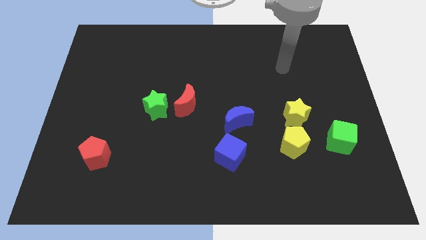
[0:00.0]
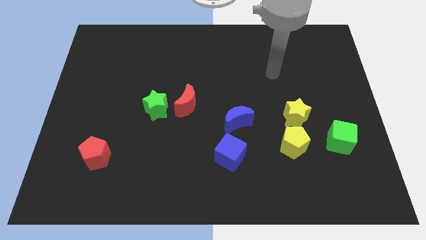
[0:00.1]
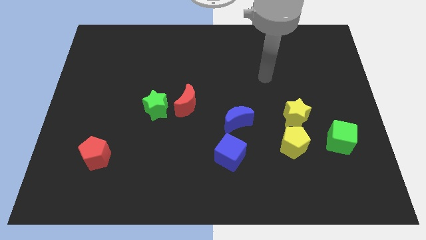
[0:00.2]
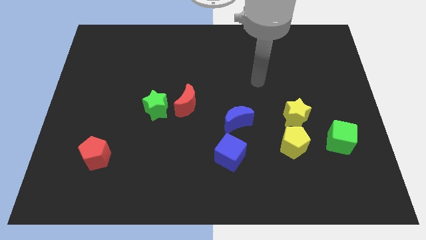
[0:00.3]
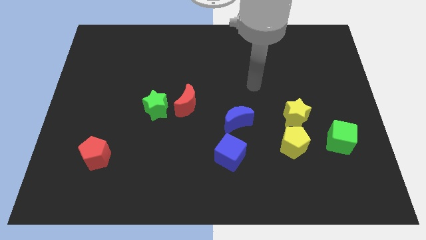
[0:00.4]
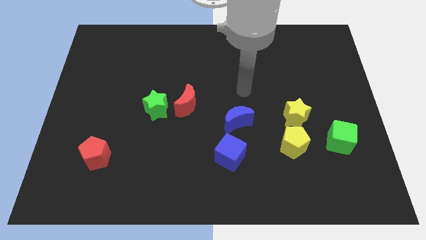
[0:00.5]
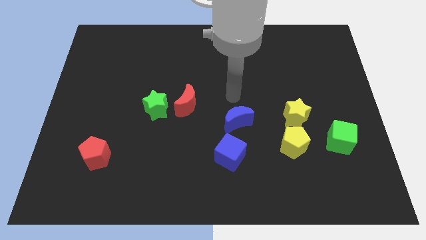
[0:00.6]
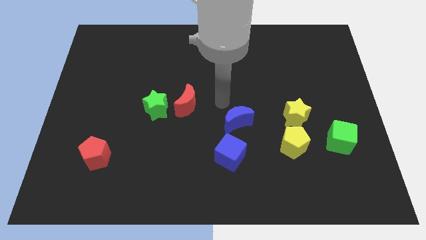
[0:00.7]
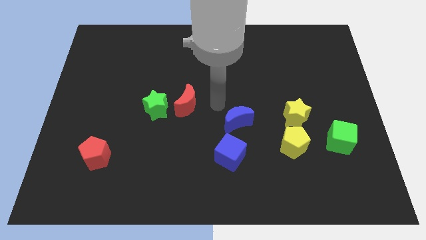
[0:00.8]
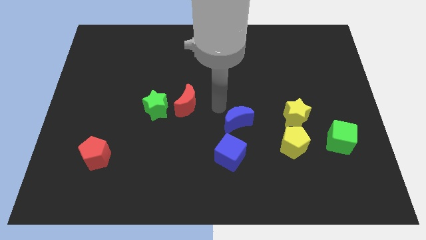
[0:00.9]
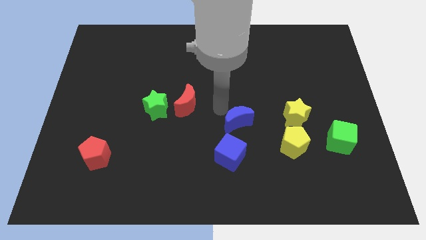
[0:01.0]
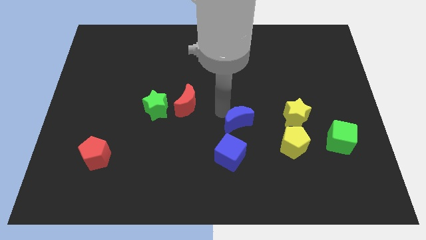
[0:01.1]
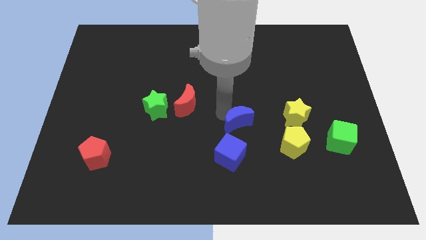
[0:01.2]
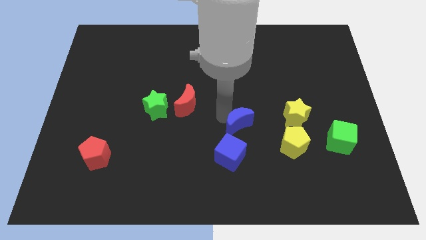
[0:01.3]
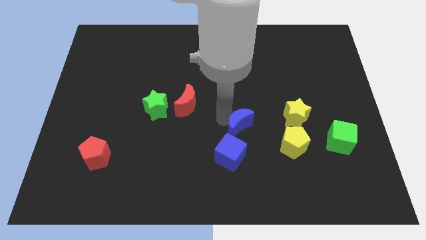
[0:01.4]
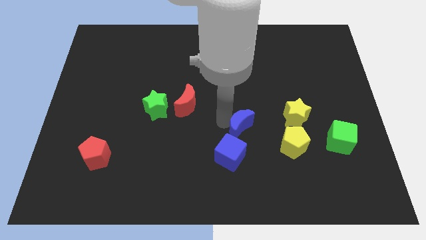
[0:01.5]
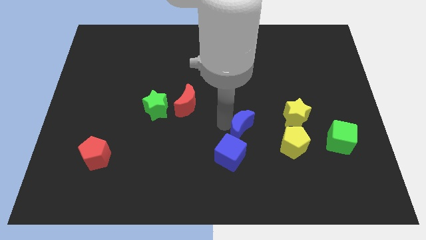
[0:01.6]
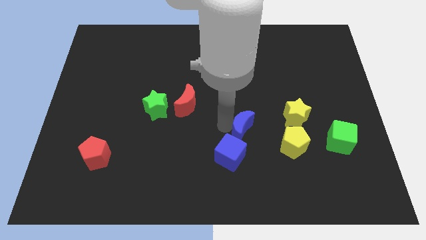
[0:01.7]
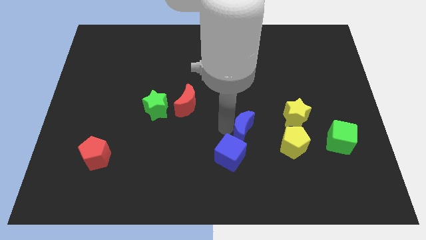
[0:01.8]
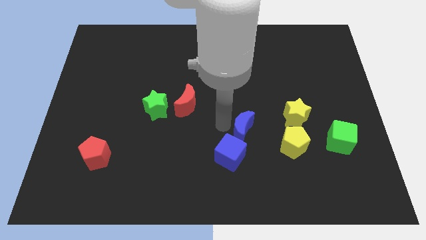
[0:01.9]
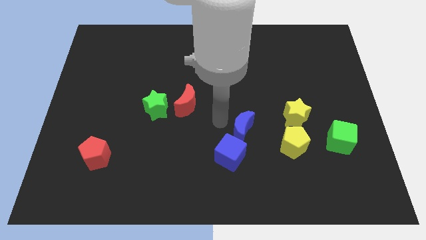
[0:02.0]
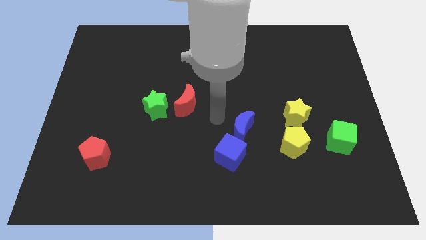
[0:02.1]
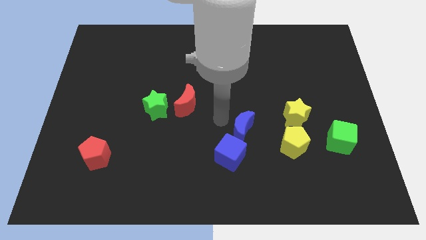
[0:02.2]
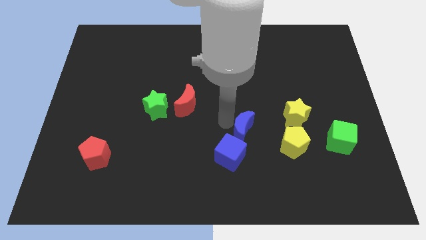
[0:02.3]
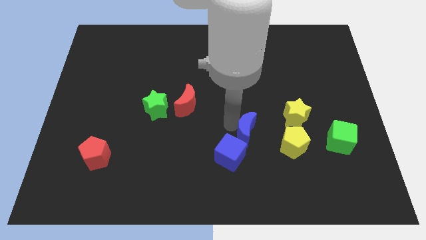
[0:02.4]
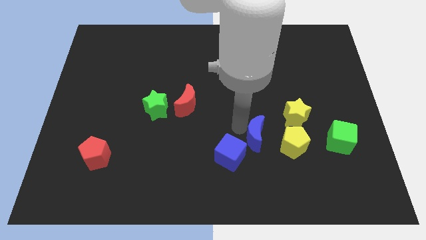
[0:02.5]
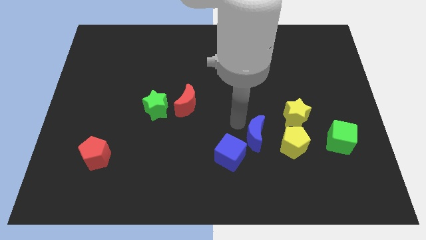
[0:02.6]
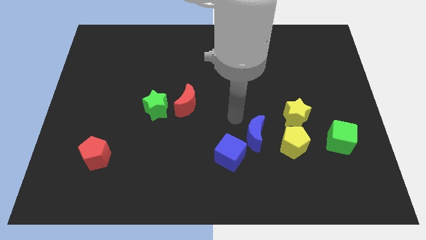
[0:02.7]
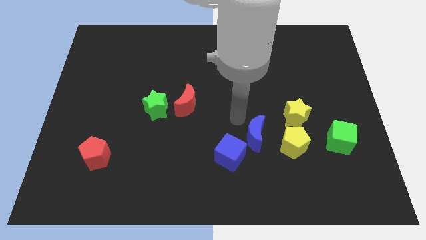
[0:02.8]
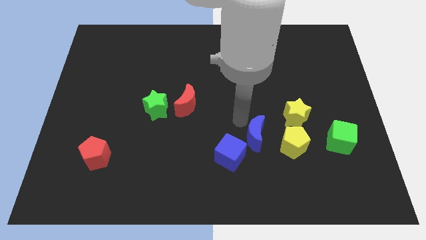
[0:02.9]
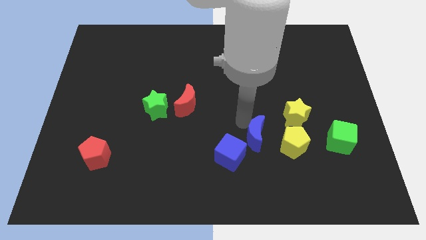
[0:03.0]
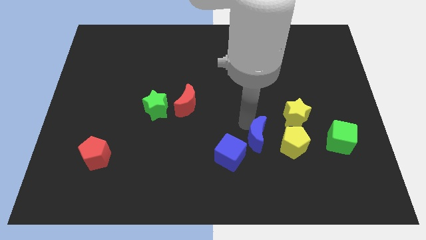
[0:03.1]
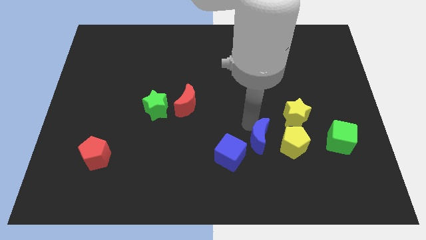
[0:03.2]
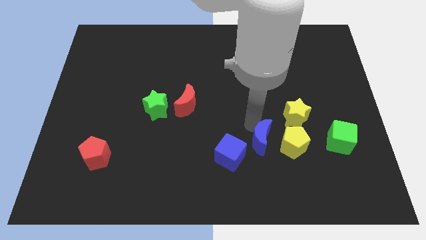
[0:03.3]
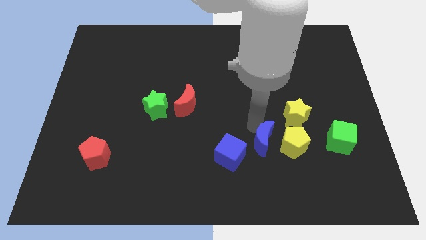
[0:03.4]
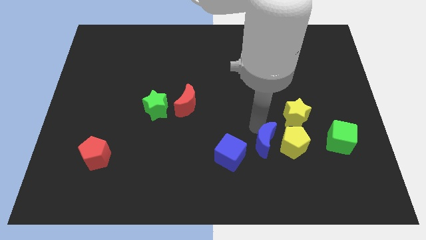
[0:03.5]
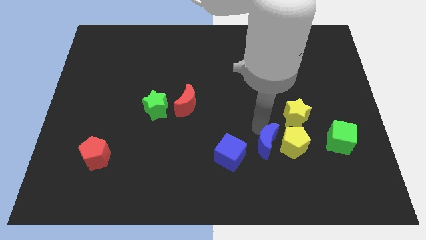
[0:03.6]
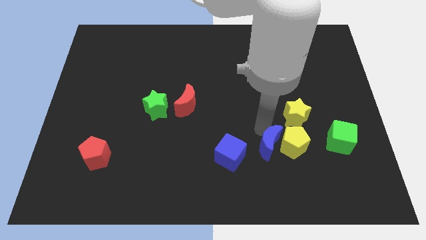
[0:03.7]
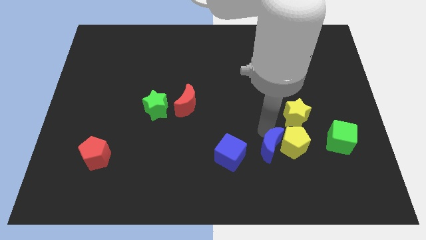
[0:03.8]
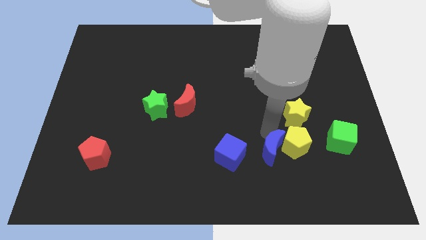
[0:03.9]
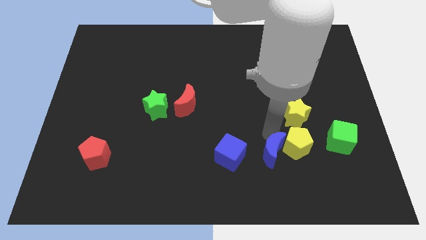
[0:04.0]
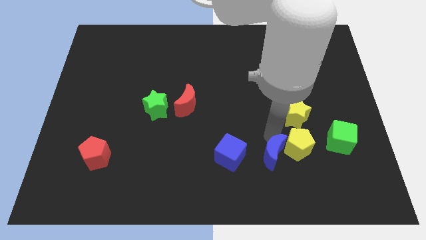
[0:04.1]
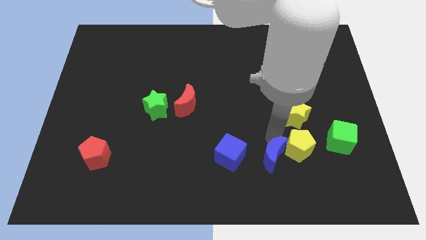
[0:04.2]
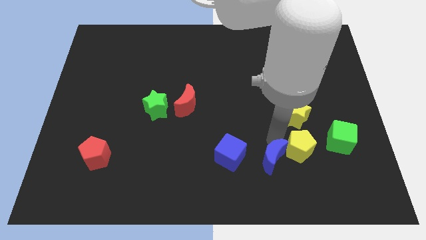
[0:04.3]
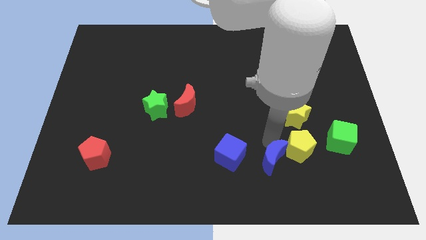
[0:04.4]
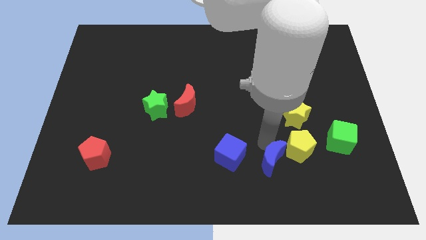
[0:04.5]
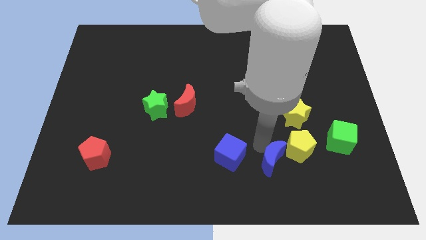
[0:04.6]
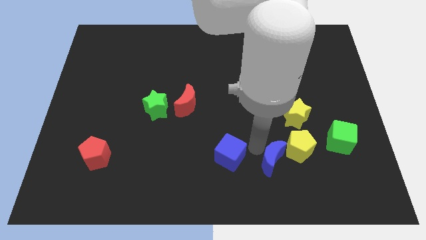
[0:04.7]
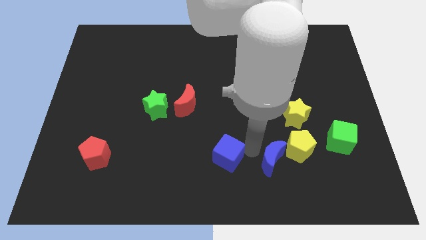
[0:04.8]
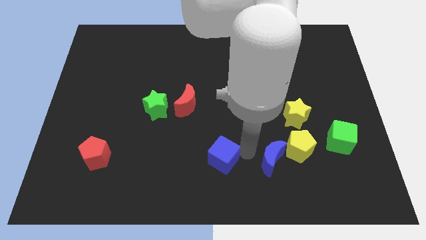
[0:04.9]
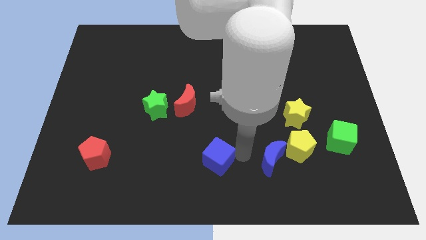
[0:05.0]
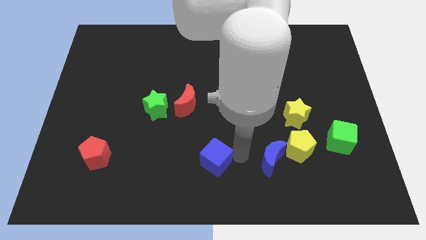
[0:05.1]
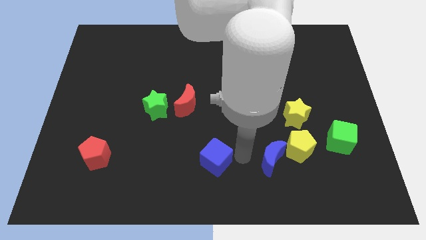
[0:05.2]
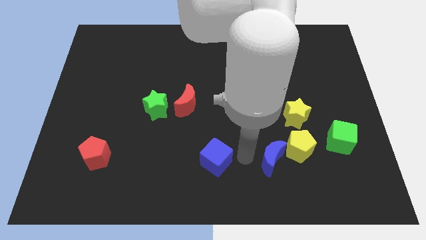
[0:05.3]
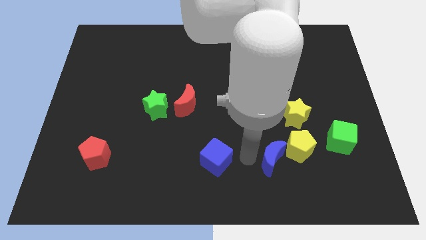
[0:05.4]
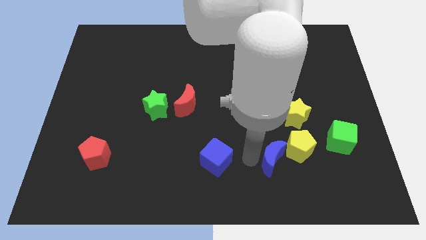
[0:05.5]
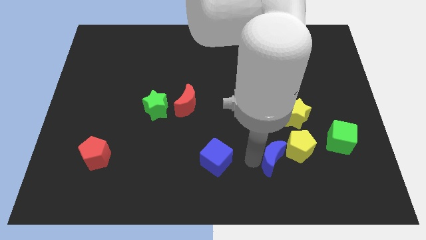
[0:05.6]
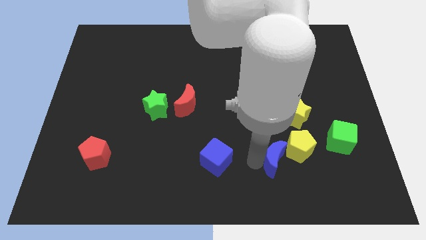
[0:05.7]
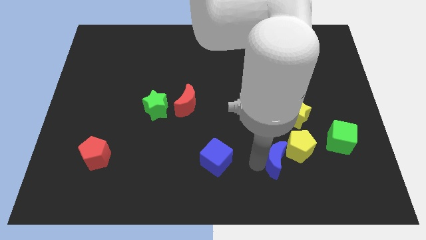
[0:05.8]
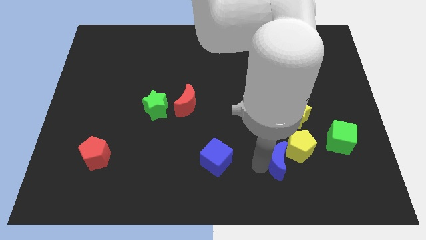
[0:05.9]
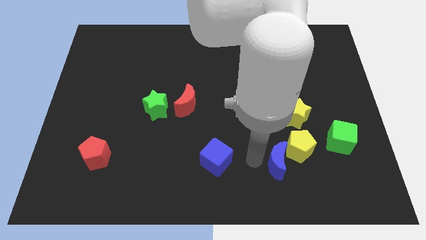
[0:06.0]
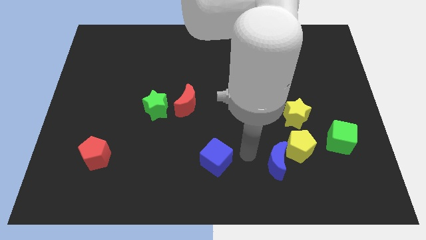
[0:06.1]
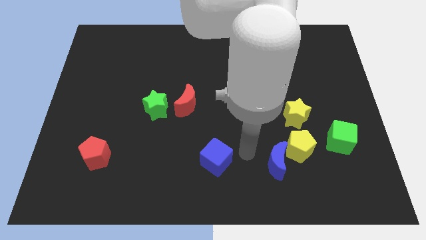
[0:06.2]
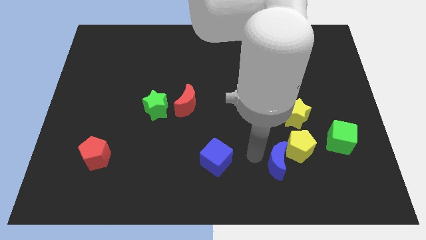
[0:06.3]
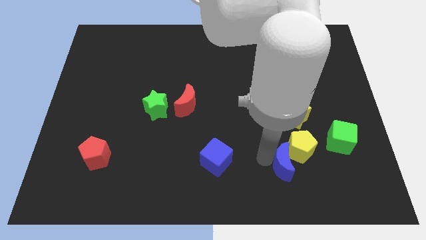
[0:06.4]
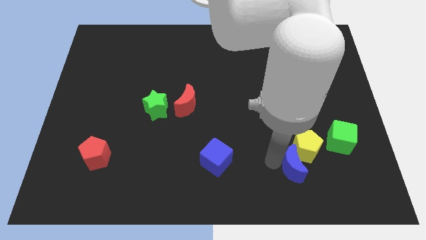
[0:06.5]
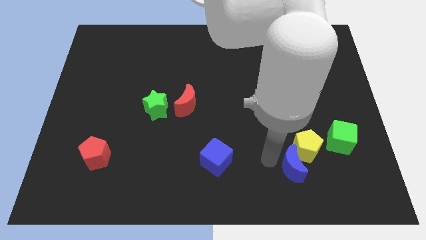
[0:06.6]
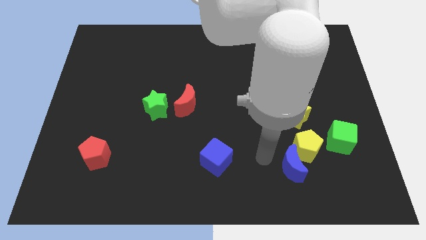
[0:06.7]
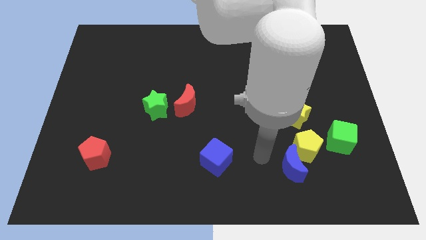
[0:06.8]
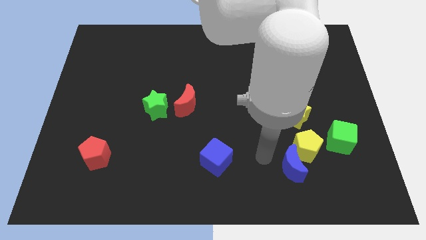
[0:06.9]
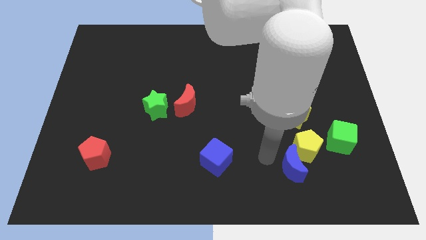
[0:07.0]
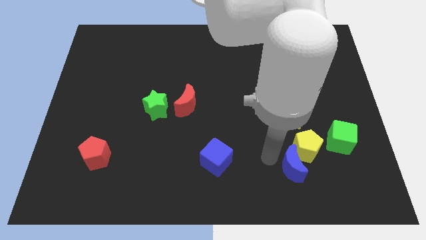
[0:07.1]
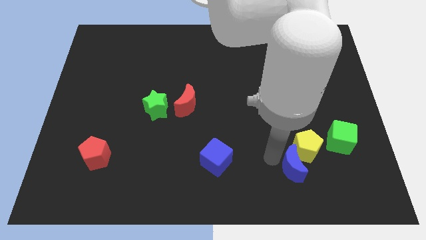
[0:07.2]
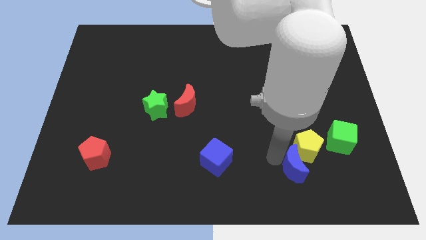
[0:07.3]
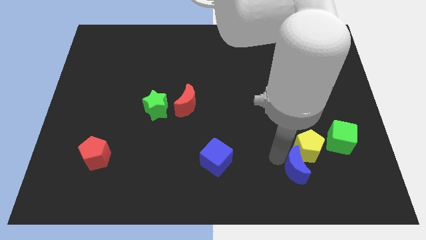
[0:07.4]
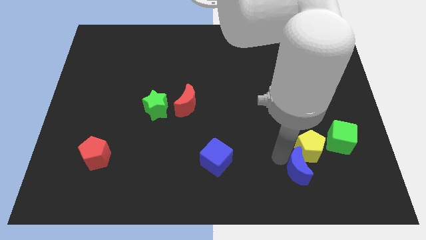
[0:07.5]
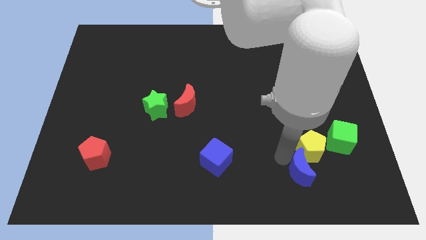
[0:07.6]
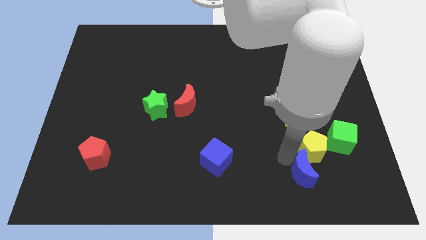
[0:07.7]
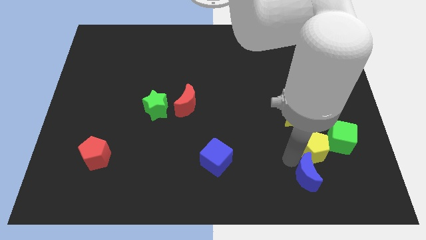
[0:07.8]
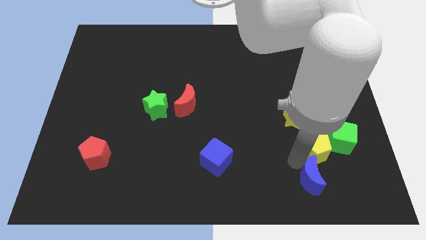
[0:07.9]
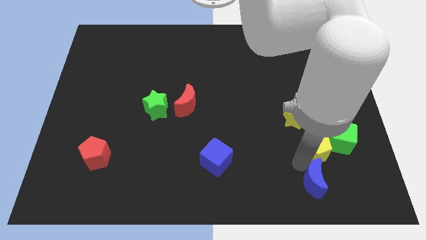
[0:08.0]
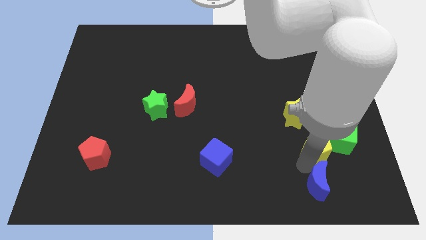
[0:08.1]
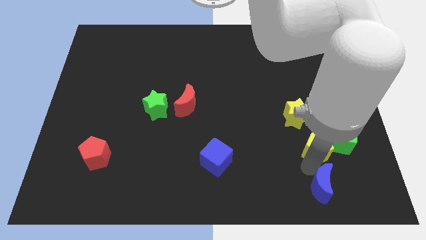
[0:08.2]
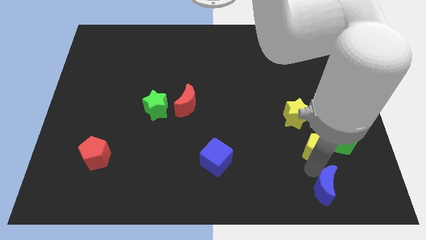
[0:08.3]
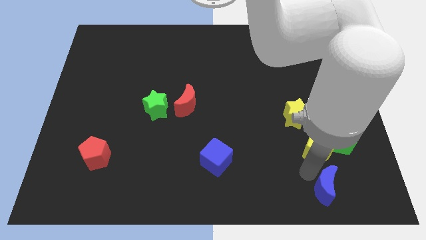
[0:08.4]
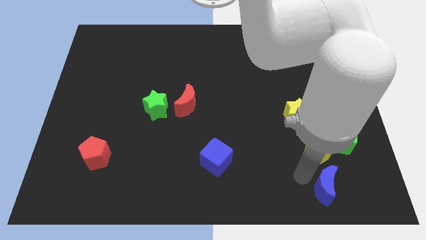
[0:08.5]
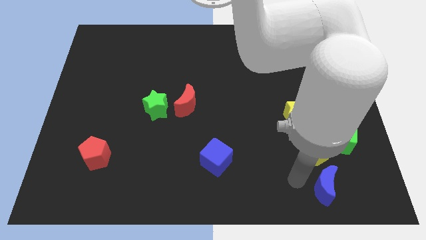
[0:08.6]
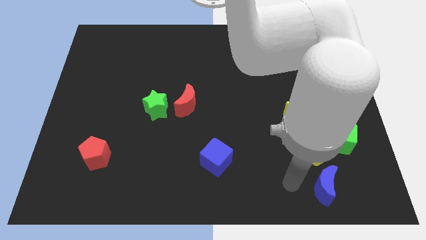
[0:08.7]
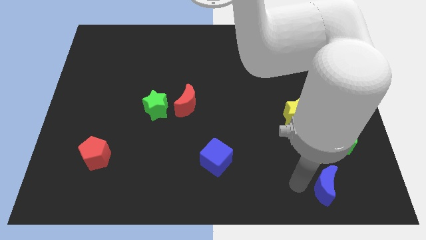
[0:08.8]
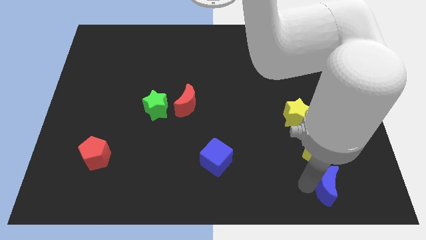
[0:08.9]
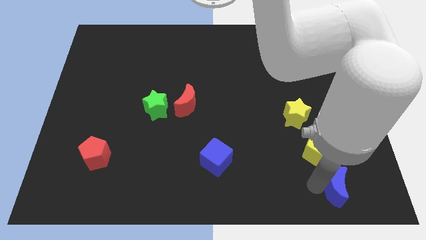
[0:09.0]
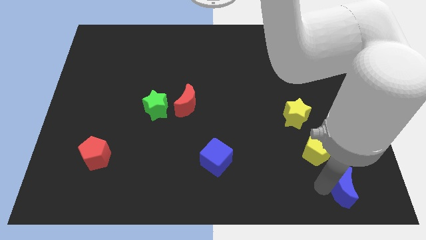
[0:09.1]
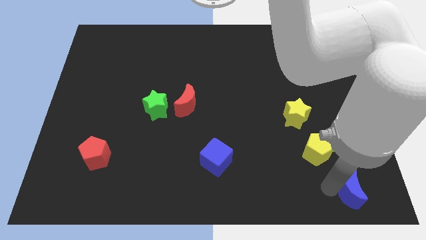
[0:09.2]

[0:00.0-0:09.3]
slide the blue moon to the bottom right of the board
